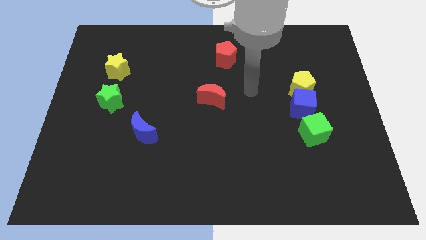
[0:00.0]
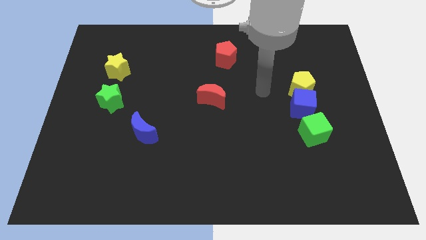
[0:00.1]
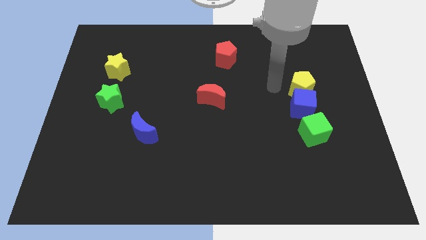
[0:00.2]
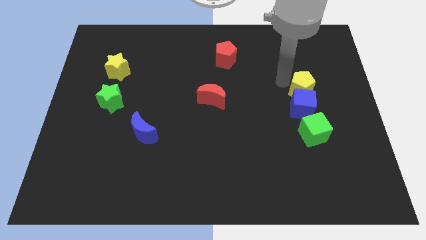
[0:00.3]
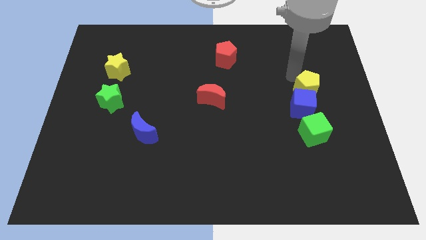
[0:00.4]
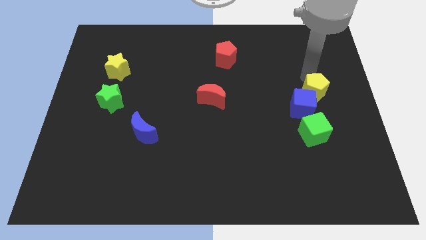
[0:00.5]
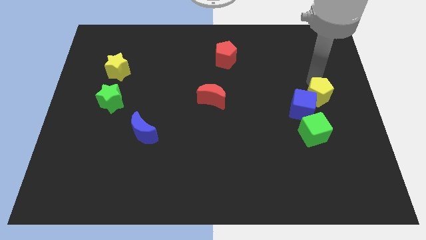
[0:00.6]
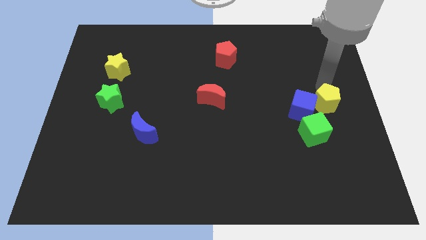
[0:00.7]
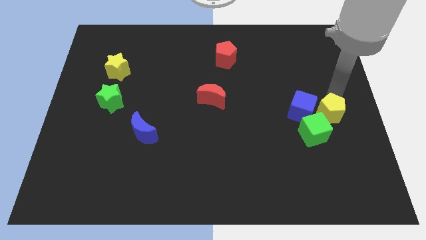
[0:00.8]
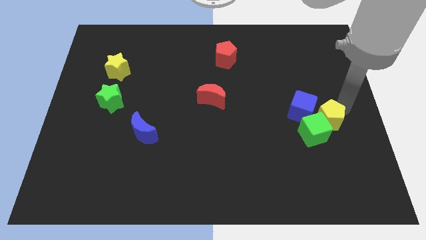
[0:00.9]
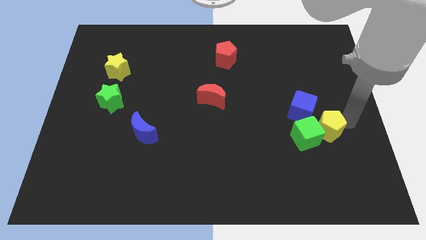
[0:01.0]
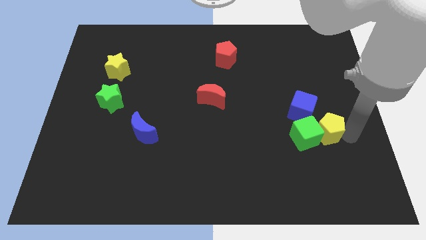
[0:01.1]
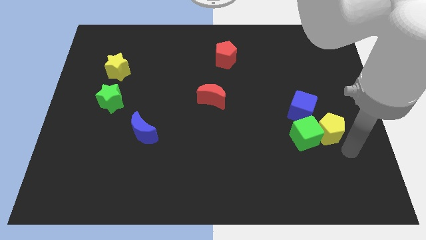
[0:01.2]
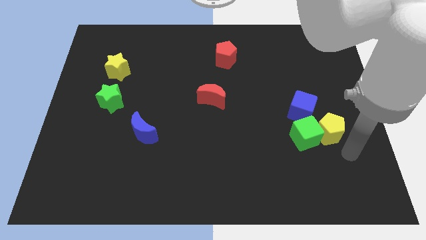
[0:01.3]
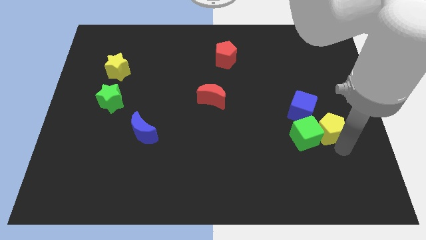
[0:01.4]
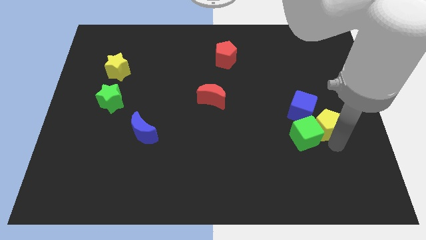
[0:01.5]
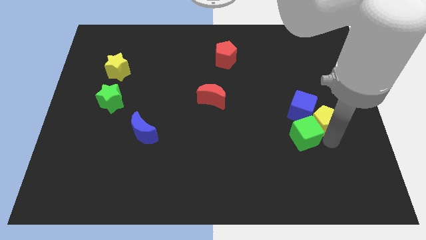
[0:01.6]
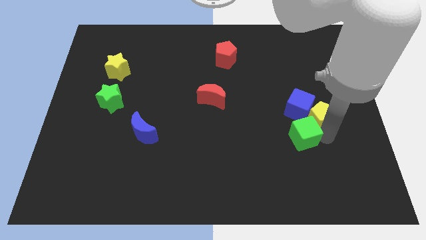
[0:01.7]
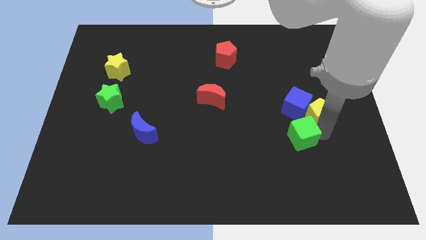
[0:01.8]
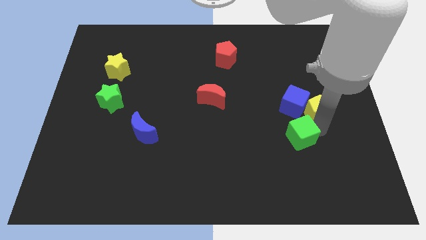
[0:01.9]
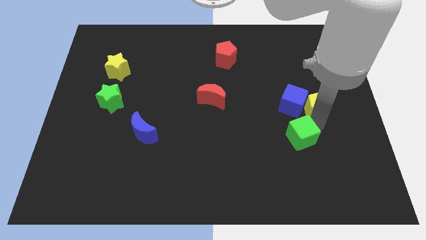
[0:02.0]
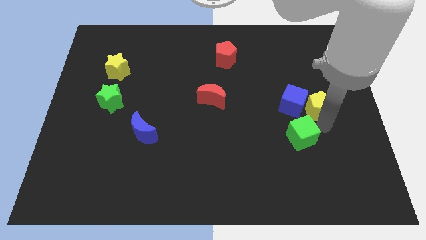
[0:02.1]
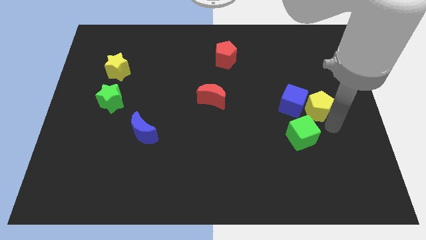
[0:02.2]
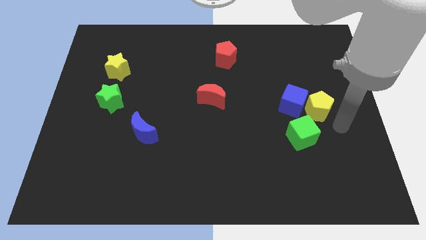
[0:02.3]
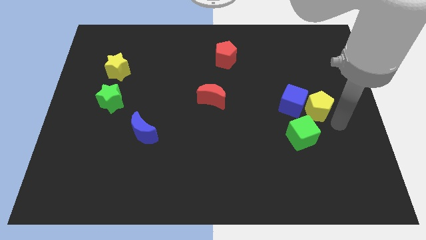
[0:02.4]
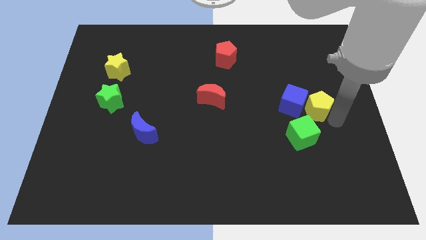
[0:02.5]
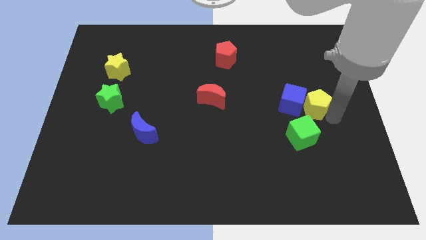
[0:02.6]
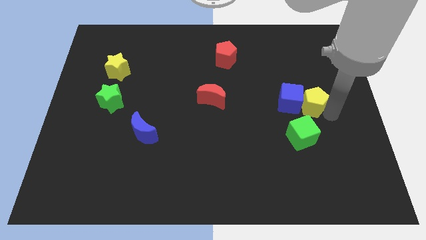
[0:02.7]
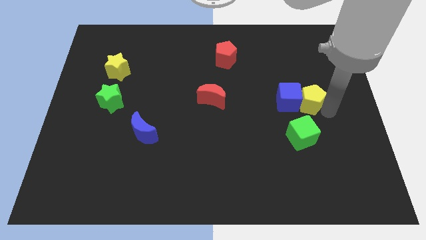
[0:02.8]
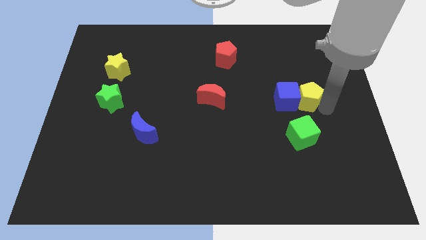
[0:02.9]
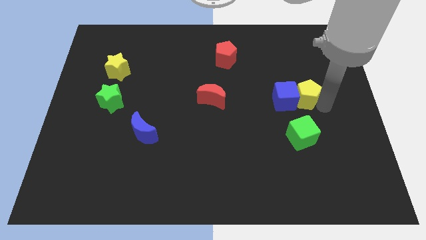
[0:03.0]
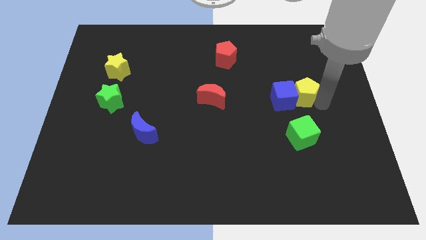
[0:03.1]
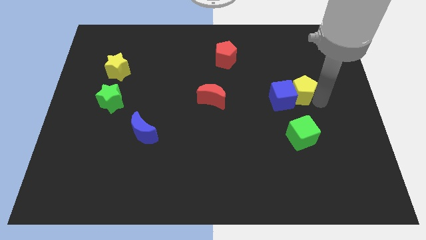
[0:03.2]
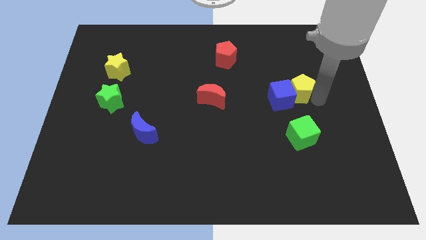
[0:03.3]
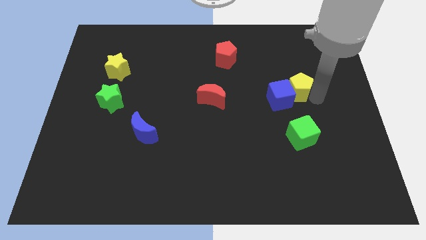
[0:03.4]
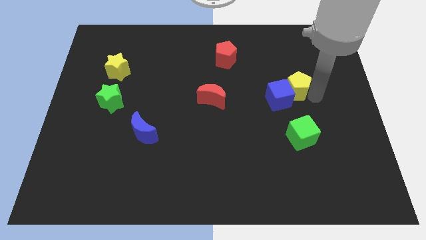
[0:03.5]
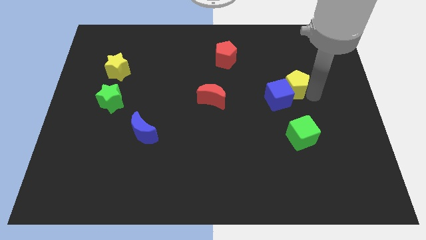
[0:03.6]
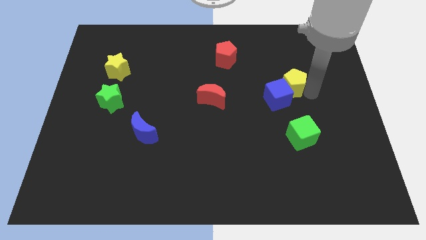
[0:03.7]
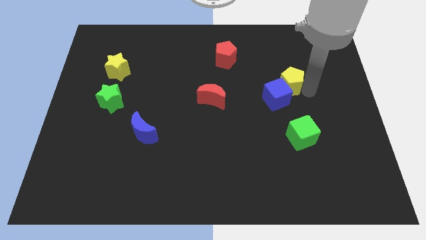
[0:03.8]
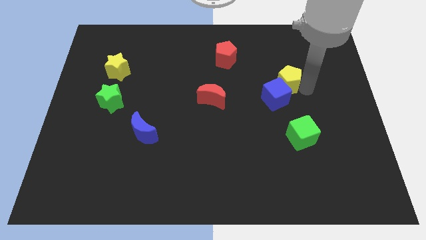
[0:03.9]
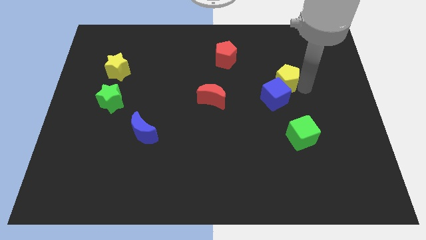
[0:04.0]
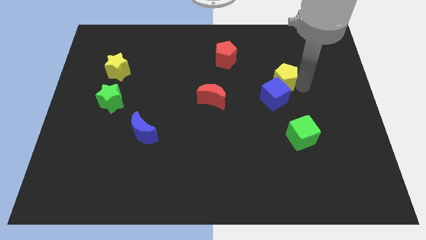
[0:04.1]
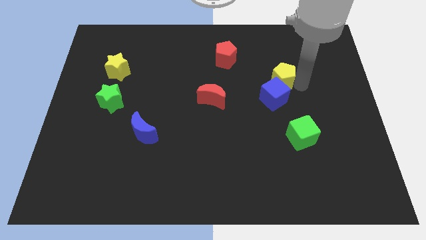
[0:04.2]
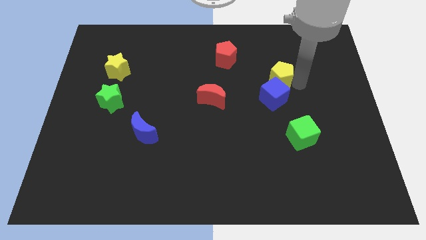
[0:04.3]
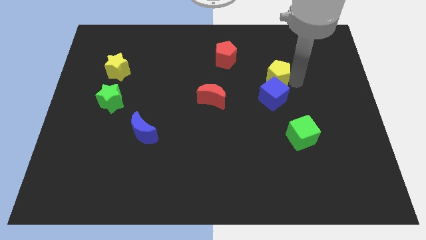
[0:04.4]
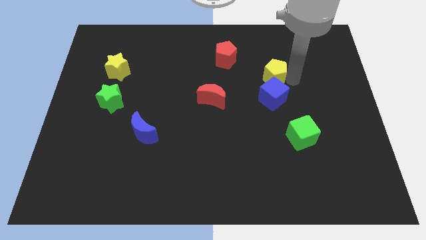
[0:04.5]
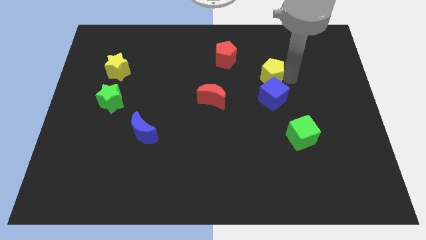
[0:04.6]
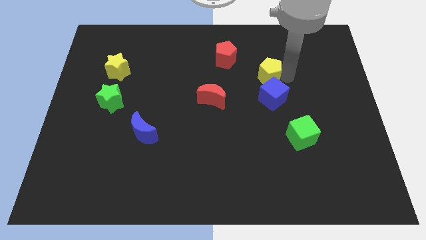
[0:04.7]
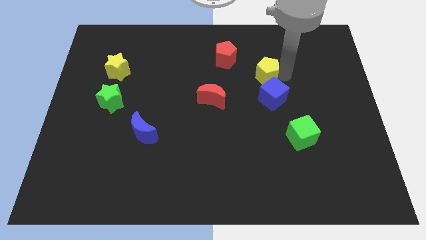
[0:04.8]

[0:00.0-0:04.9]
slide the yellow pentagon to the bottom right side of the red pentagon

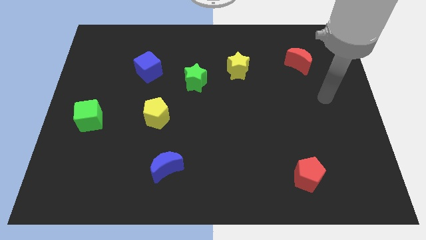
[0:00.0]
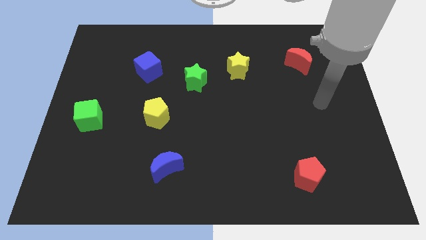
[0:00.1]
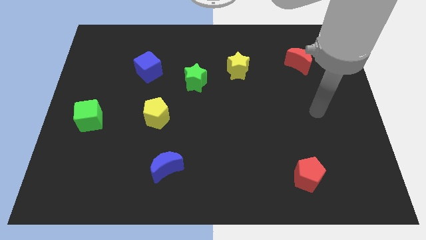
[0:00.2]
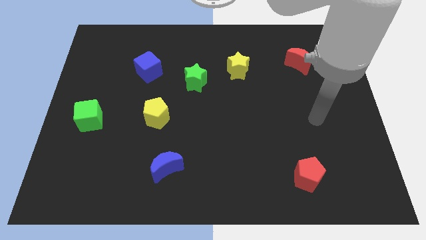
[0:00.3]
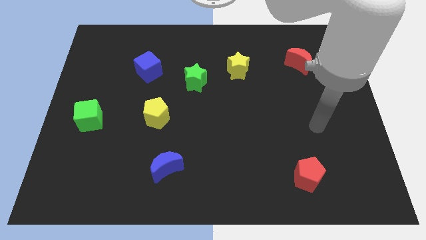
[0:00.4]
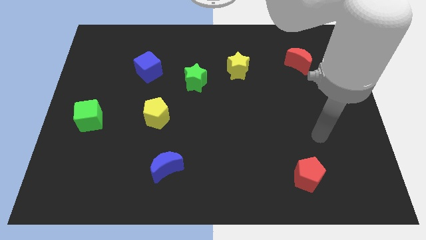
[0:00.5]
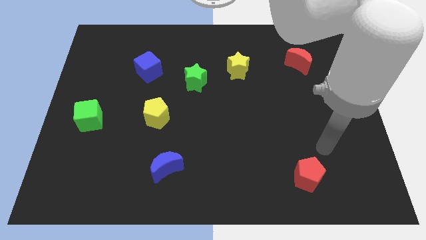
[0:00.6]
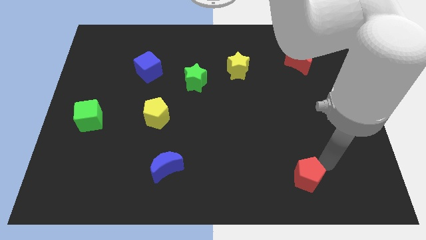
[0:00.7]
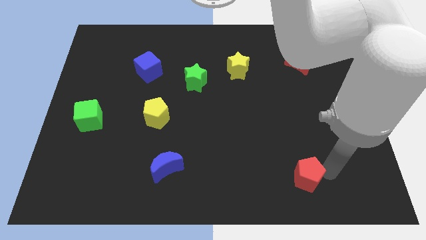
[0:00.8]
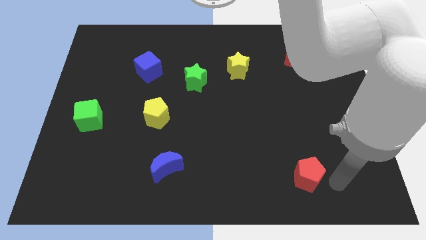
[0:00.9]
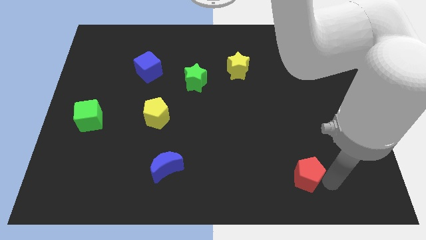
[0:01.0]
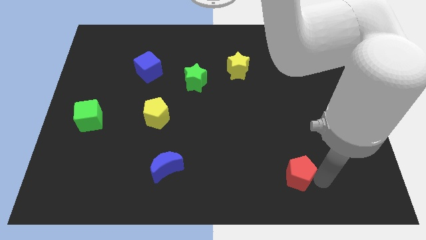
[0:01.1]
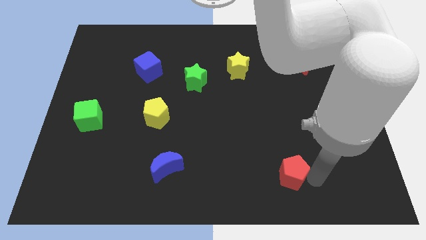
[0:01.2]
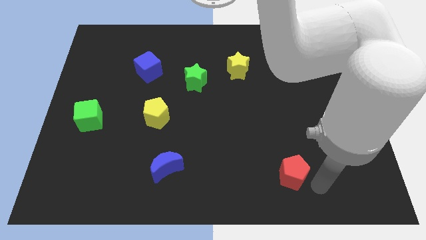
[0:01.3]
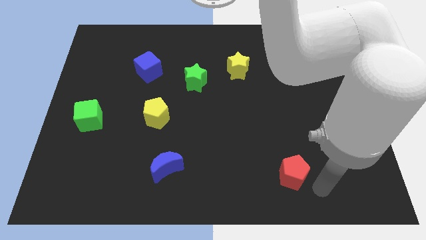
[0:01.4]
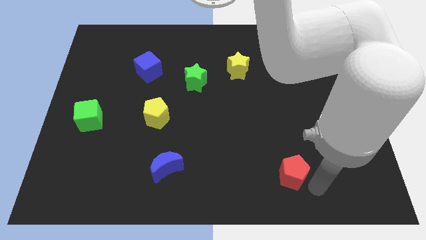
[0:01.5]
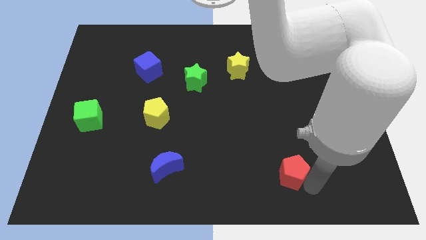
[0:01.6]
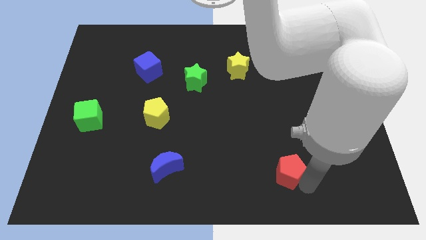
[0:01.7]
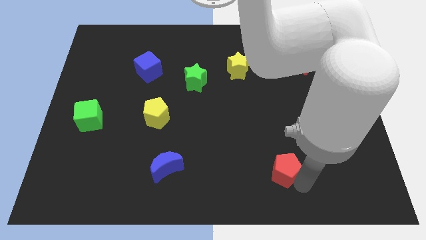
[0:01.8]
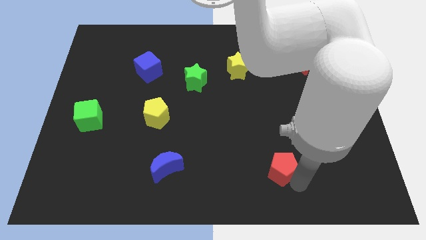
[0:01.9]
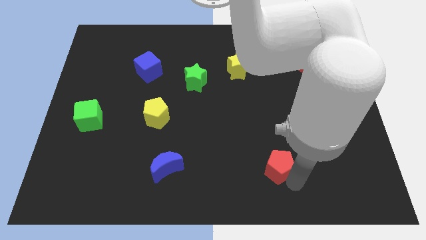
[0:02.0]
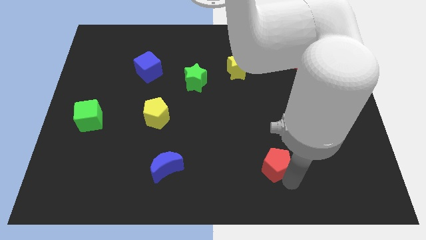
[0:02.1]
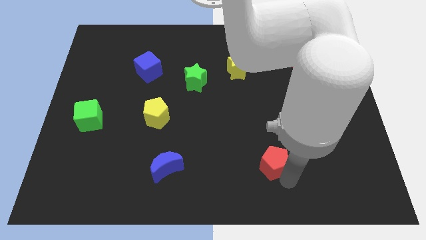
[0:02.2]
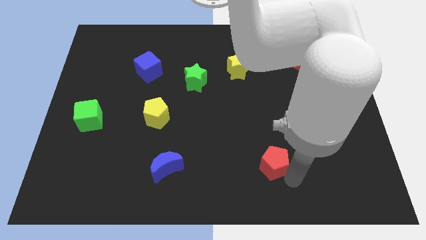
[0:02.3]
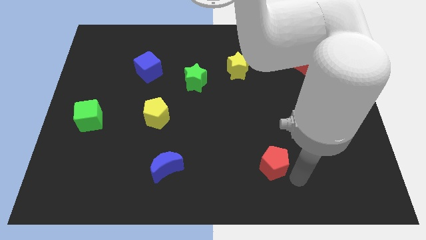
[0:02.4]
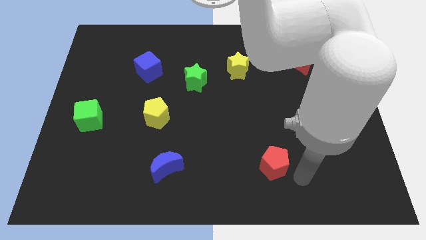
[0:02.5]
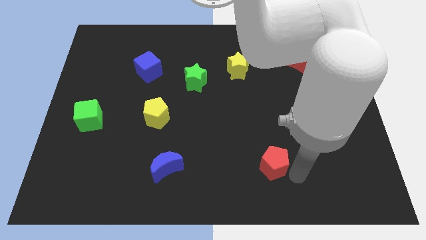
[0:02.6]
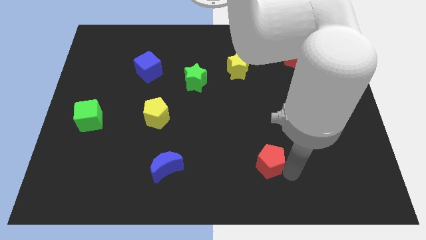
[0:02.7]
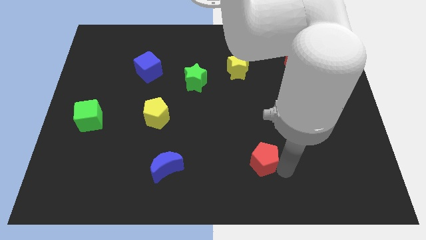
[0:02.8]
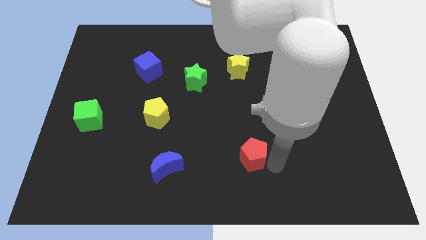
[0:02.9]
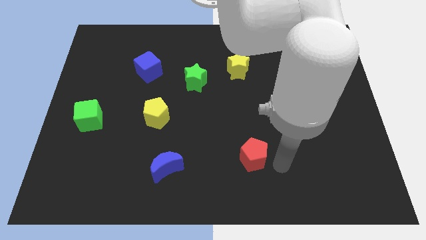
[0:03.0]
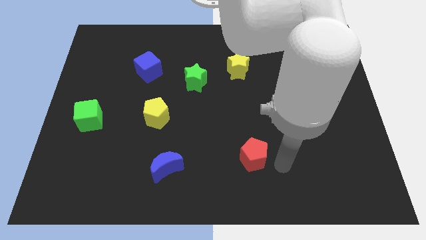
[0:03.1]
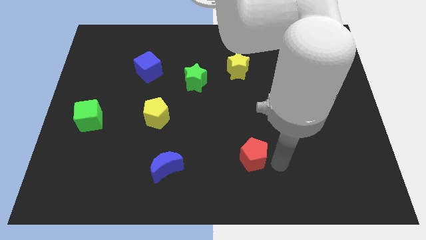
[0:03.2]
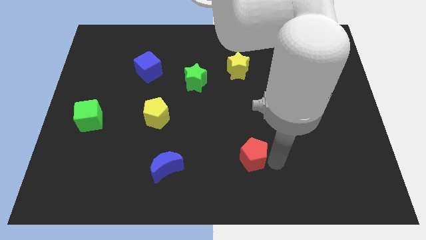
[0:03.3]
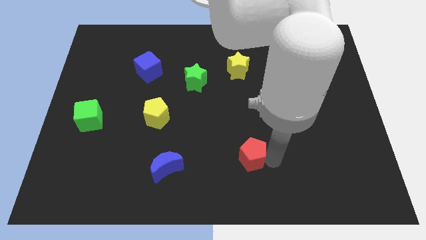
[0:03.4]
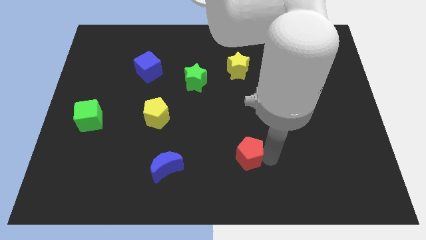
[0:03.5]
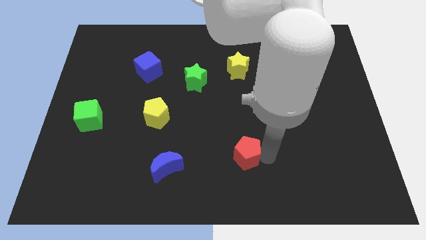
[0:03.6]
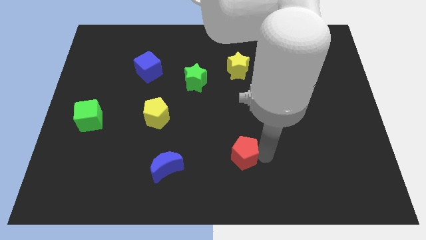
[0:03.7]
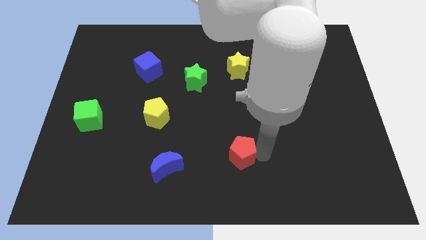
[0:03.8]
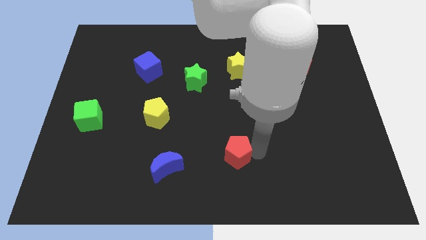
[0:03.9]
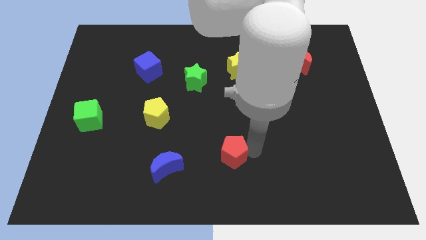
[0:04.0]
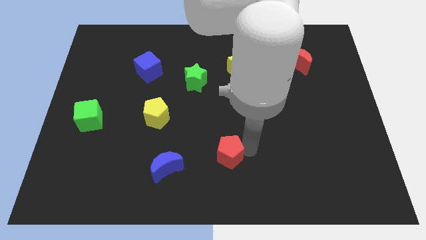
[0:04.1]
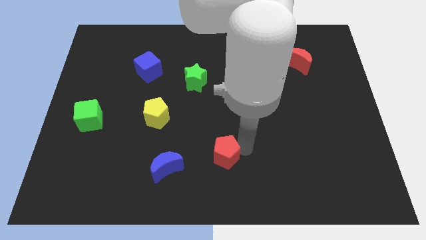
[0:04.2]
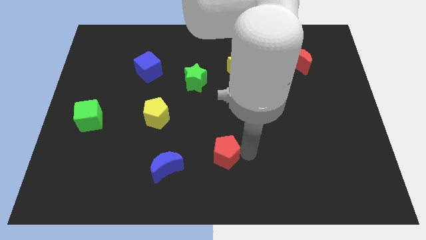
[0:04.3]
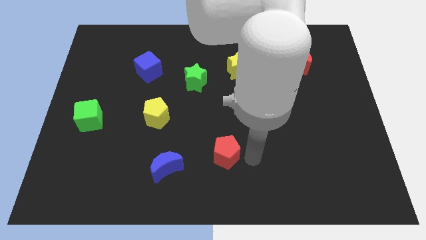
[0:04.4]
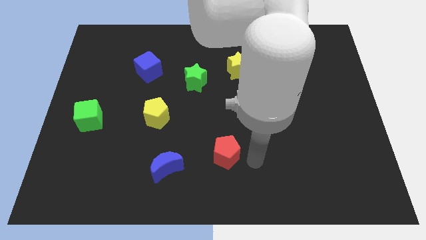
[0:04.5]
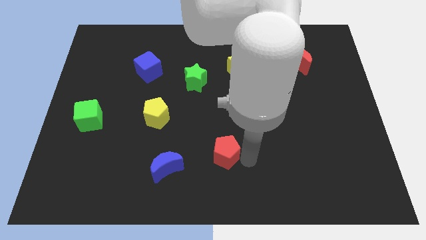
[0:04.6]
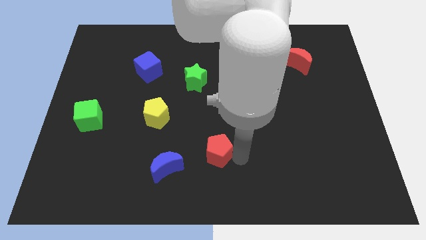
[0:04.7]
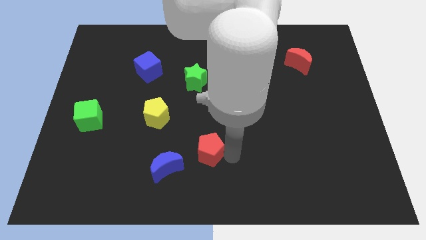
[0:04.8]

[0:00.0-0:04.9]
slide the red pentagon to the top right of the blue moon
